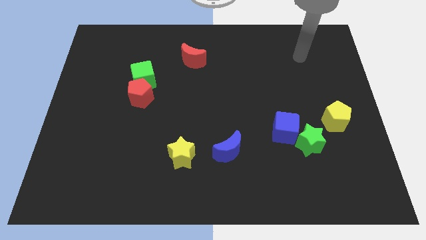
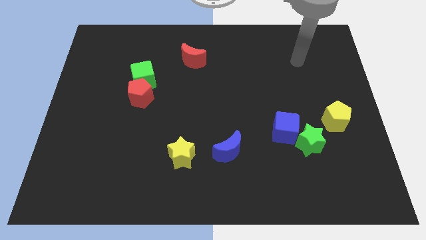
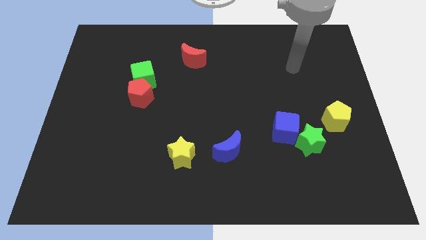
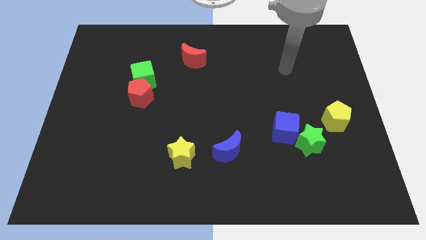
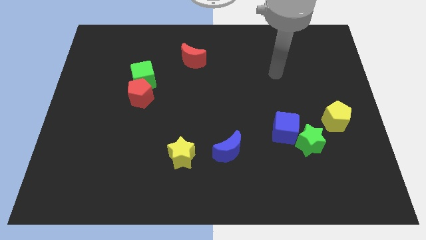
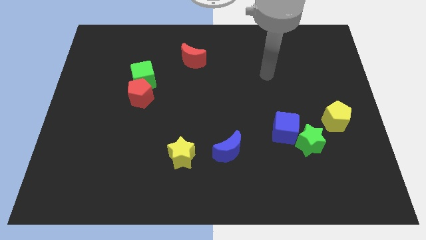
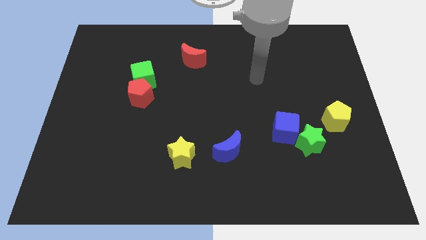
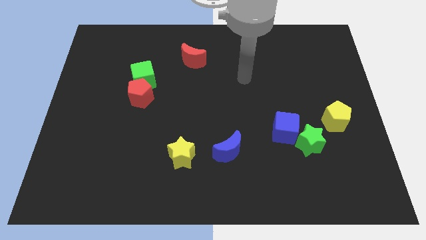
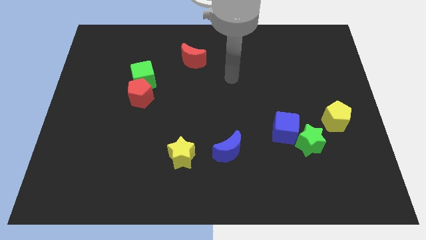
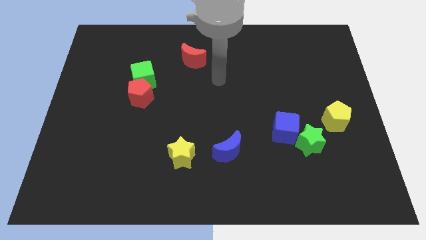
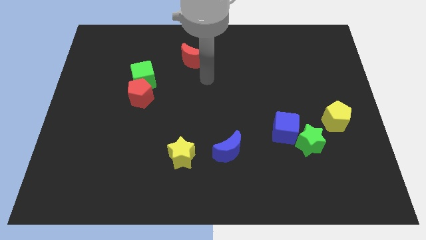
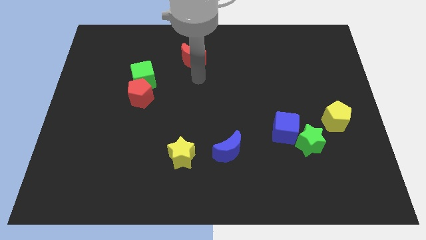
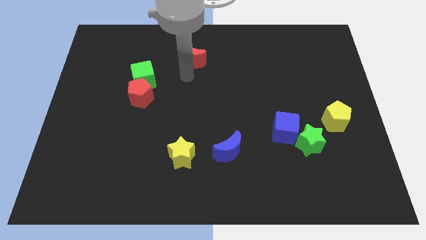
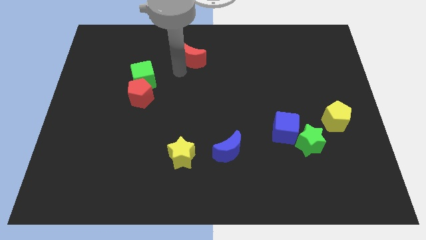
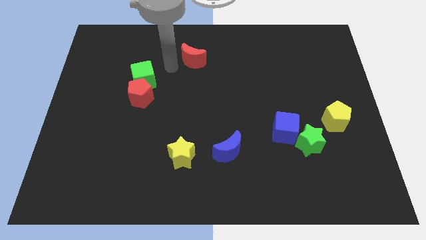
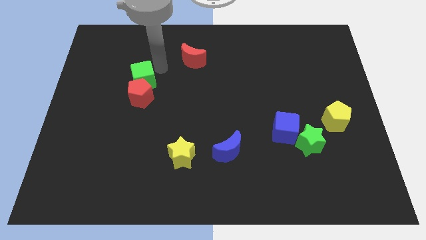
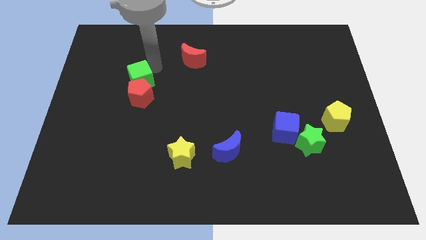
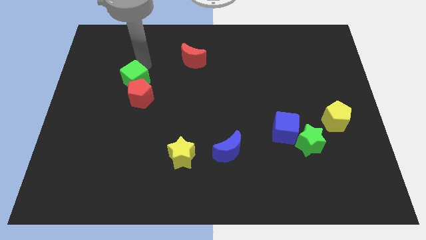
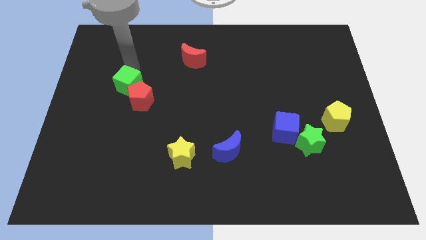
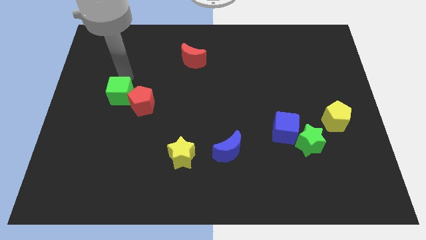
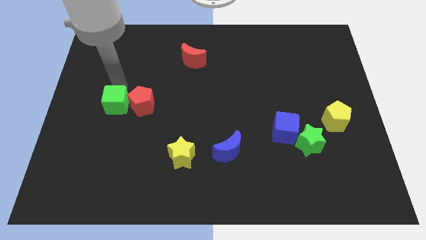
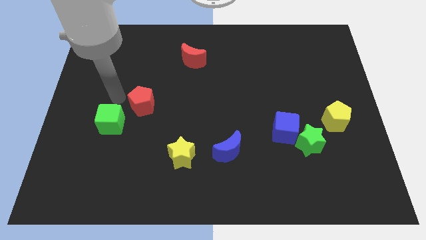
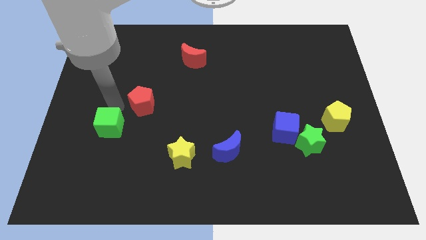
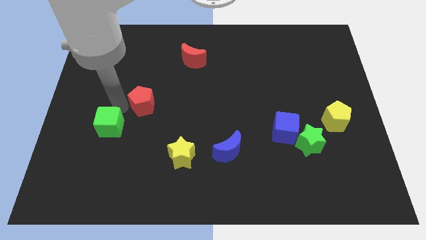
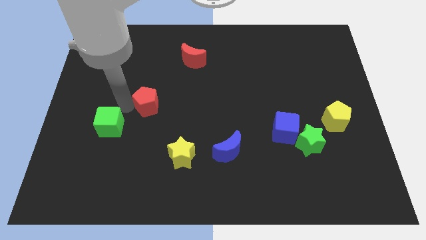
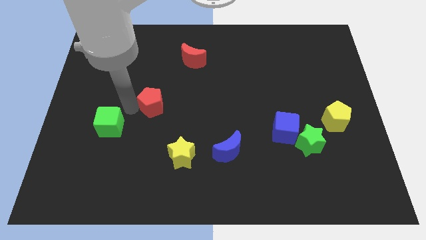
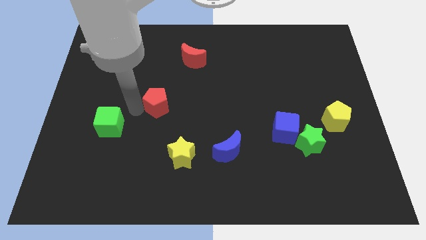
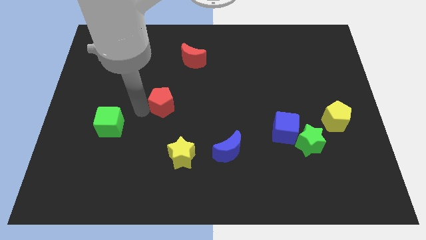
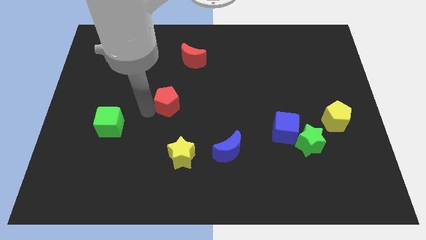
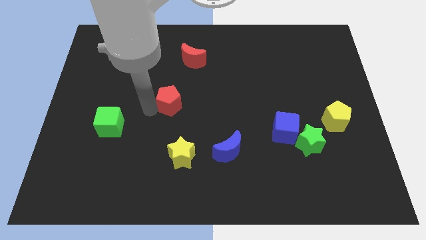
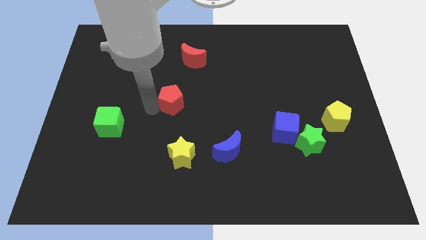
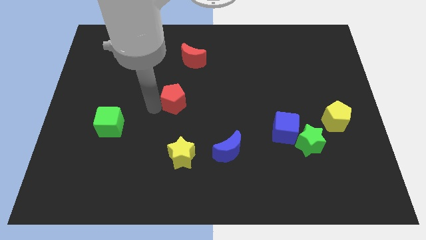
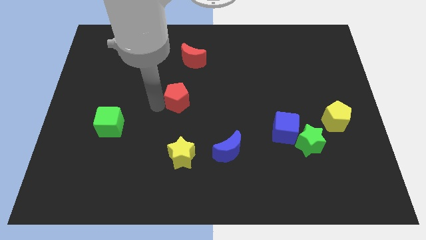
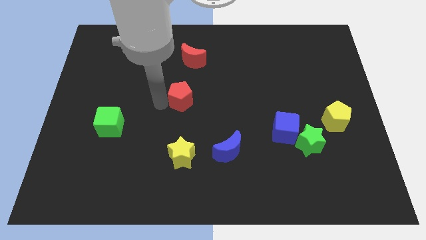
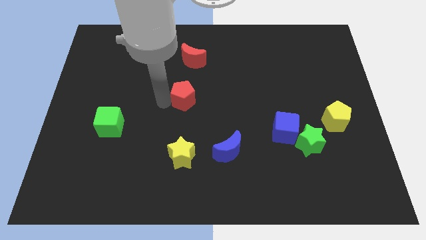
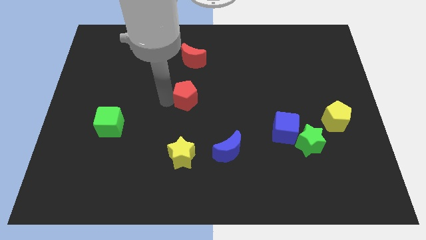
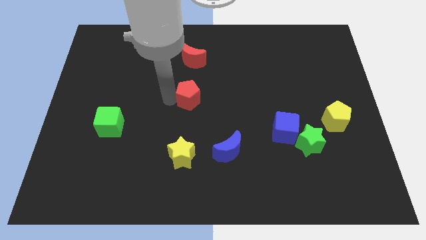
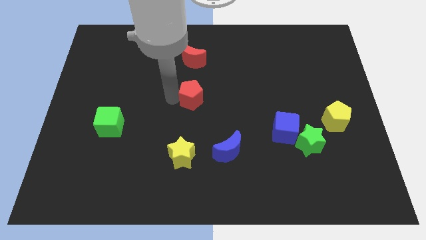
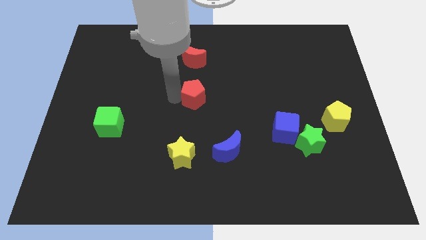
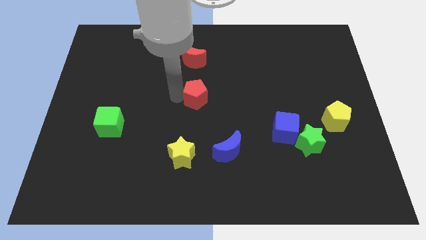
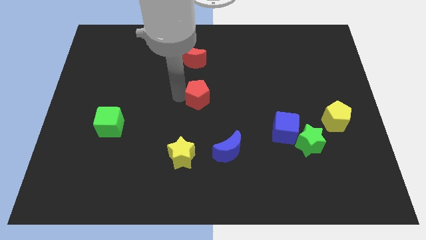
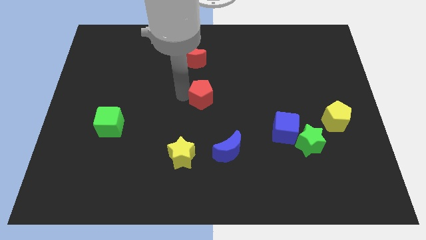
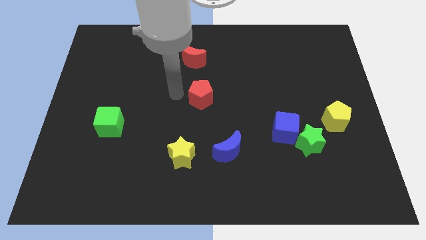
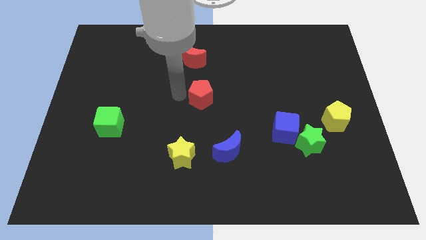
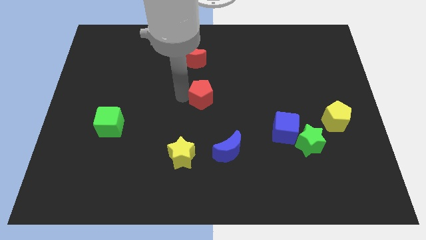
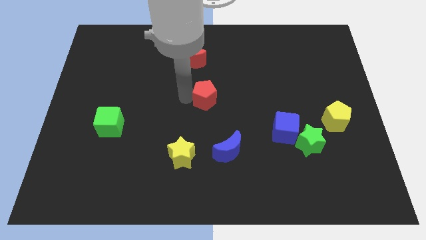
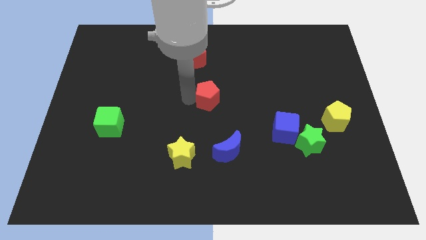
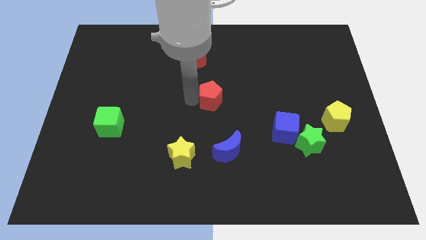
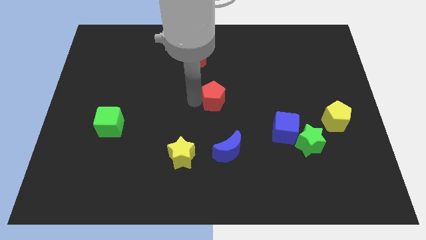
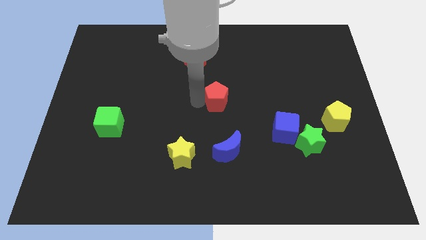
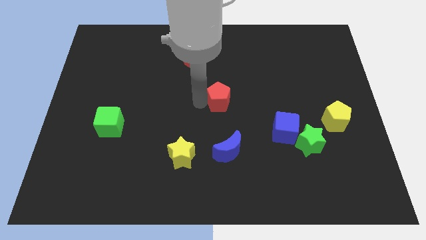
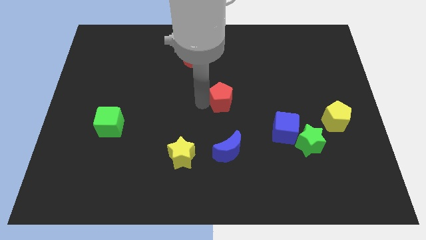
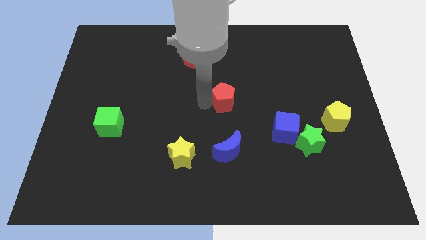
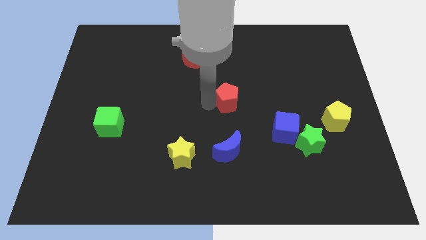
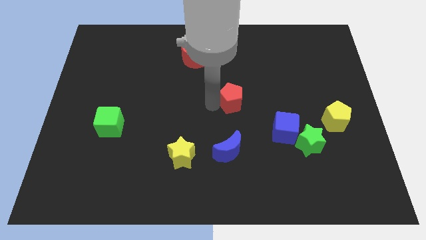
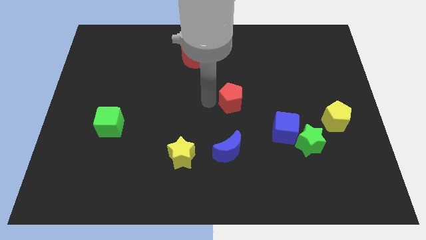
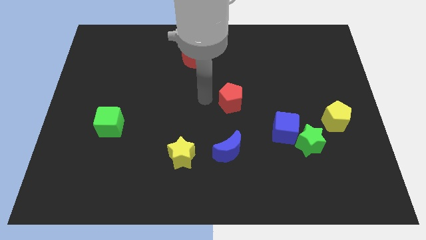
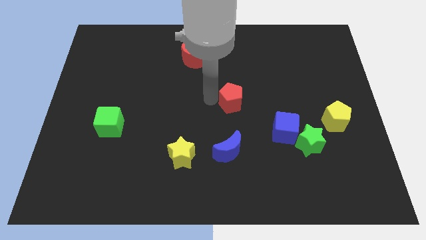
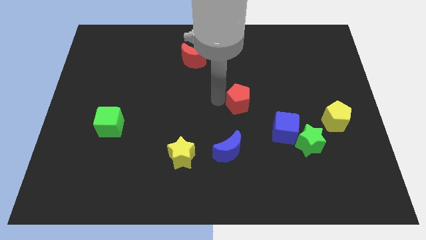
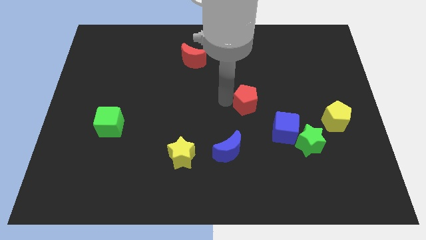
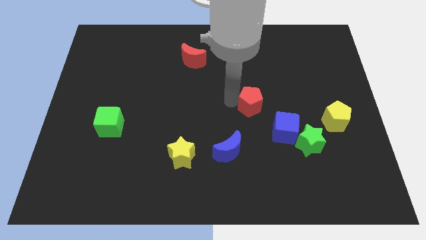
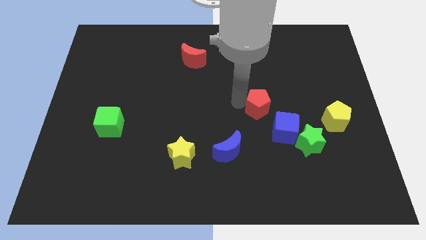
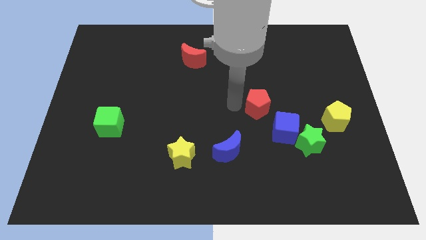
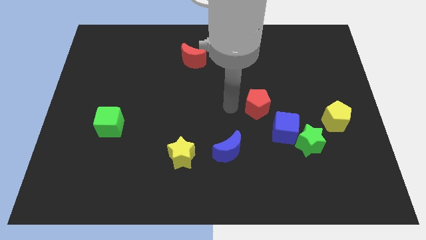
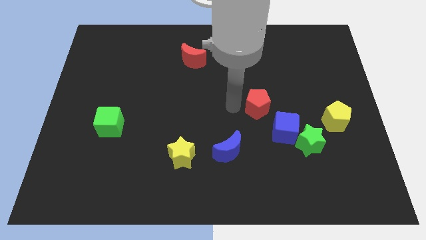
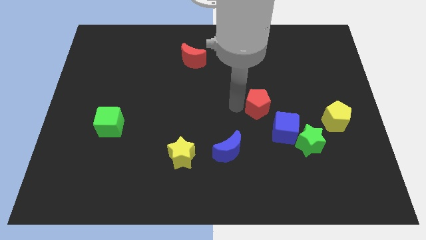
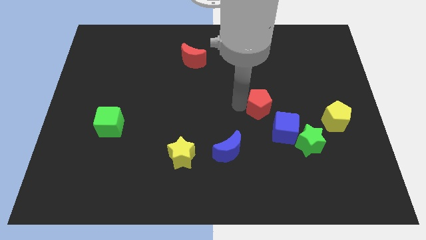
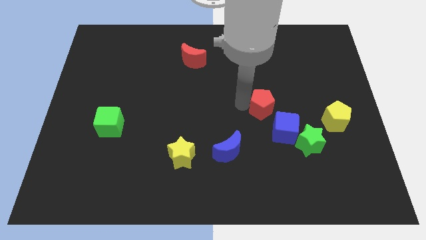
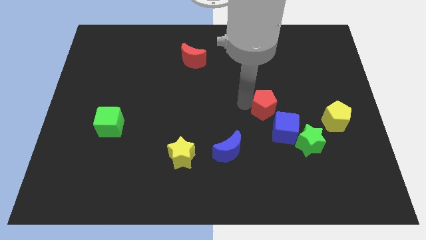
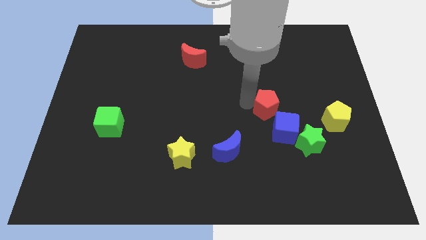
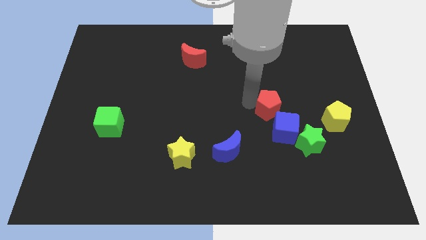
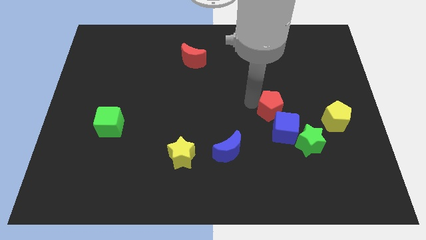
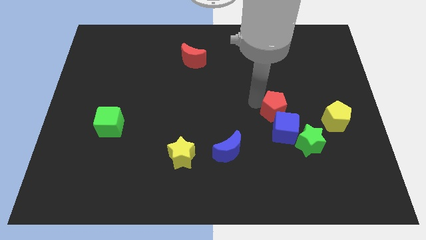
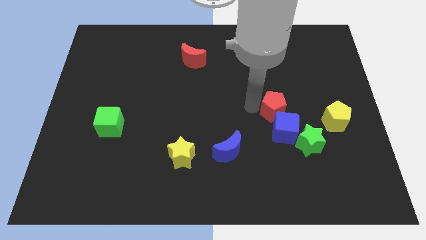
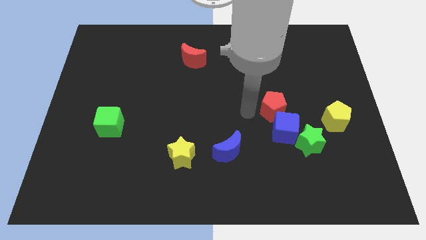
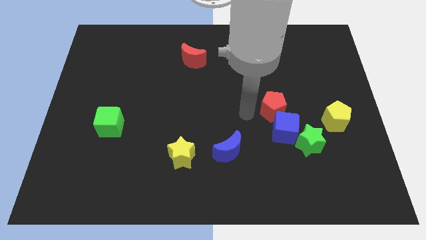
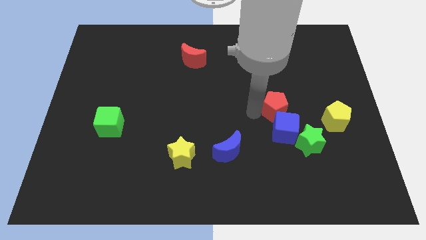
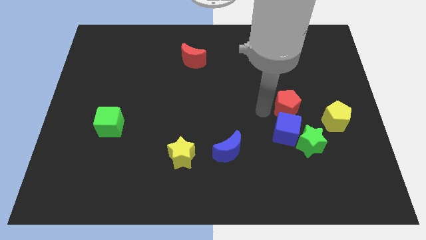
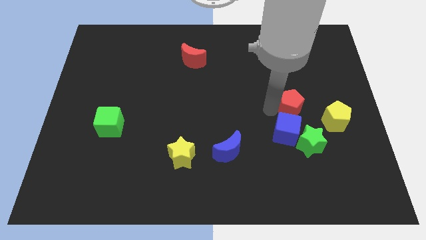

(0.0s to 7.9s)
slide the red pentagon diagonally up and to the left of the yellow pentagon
